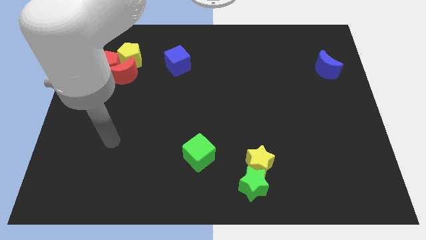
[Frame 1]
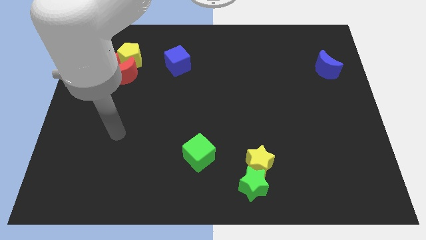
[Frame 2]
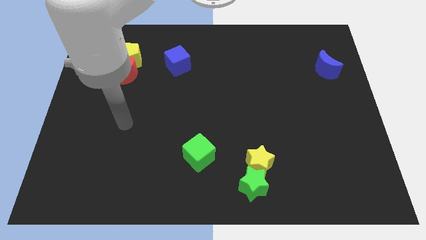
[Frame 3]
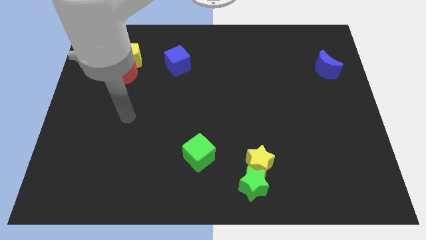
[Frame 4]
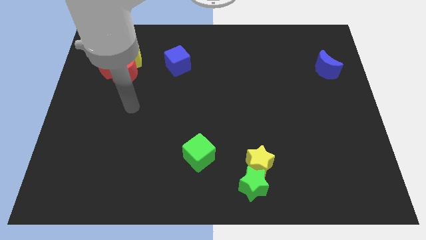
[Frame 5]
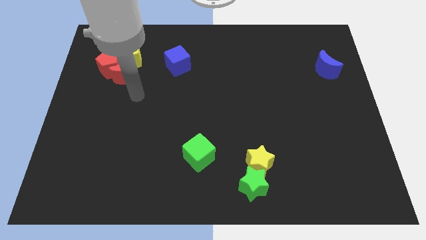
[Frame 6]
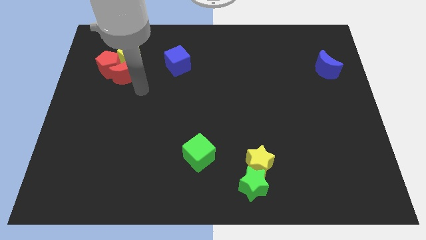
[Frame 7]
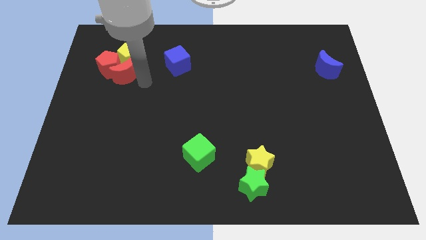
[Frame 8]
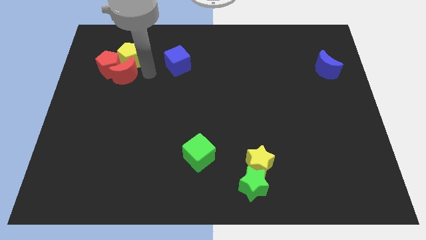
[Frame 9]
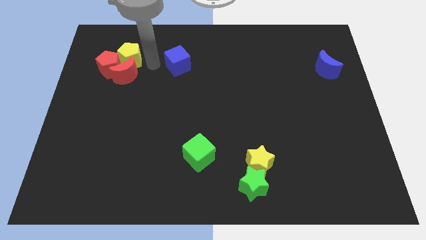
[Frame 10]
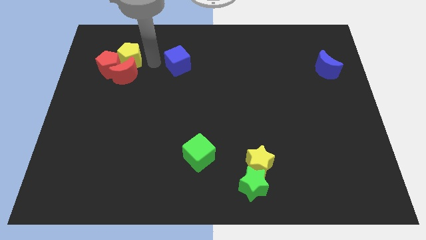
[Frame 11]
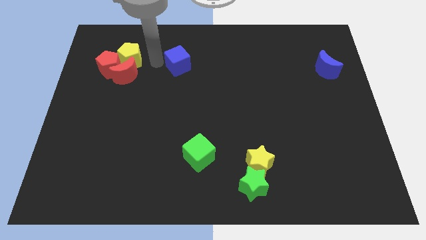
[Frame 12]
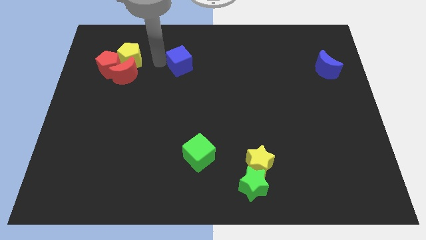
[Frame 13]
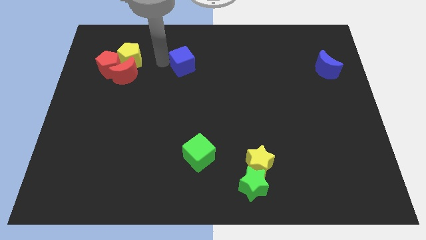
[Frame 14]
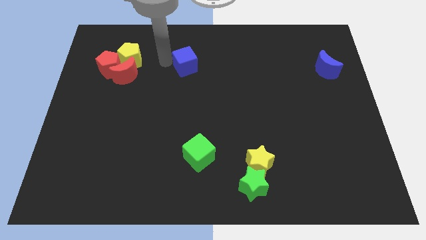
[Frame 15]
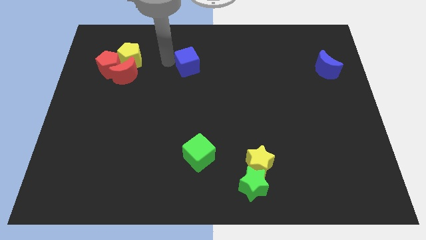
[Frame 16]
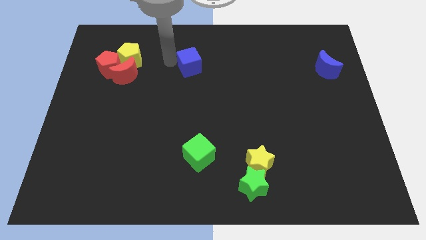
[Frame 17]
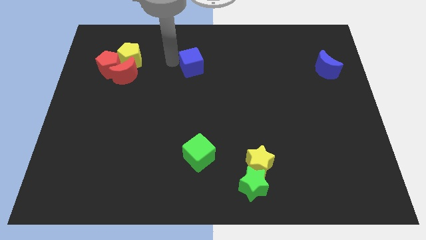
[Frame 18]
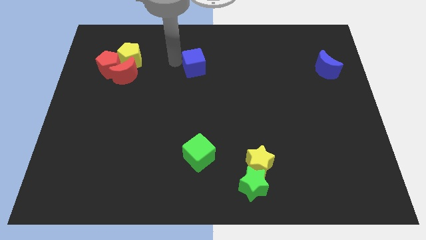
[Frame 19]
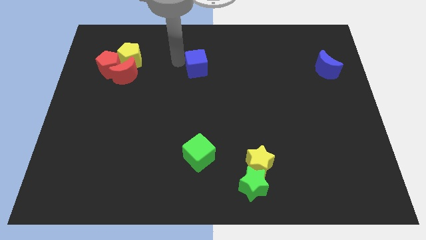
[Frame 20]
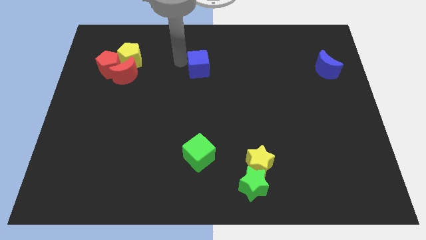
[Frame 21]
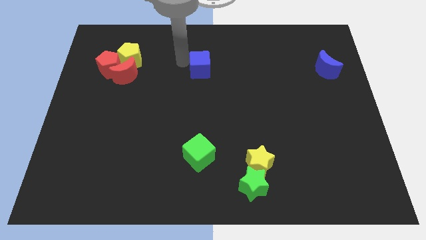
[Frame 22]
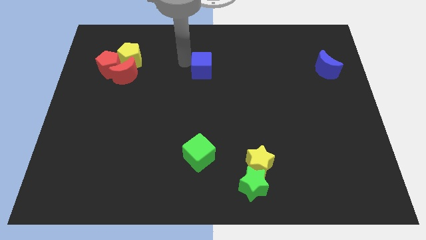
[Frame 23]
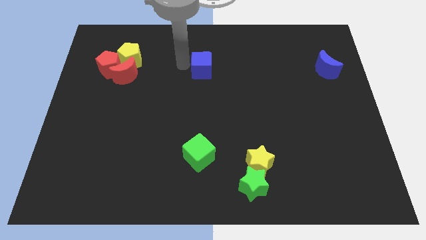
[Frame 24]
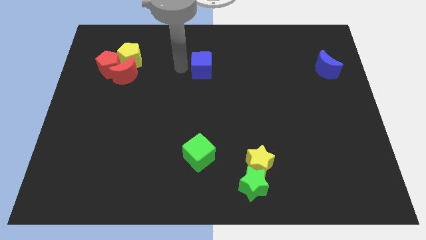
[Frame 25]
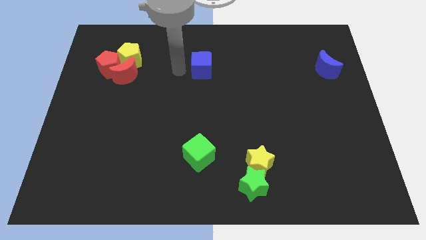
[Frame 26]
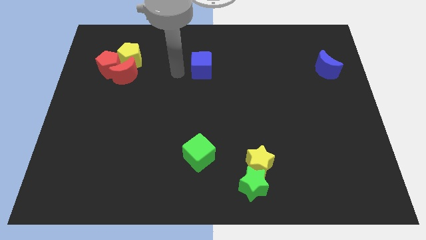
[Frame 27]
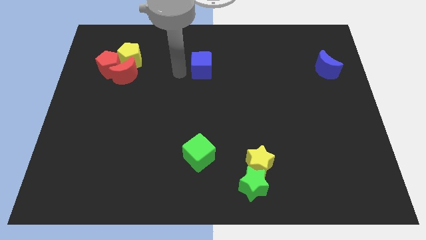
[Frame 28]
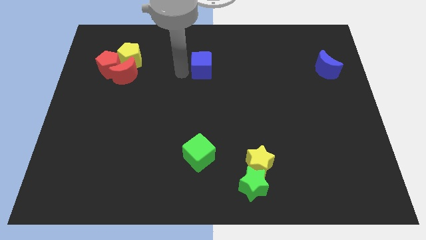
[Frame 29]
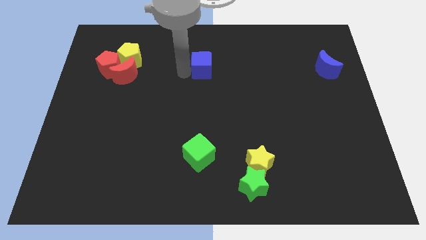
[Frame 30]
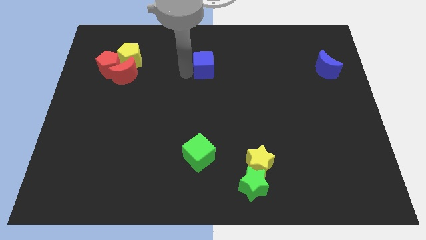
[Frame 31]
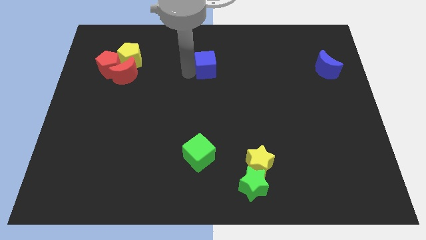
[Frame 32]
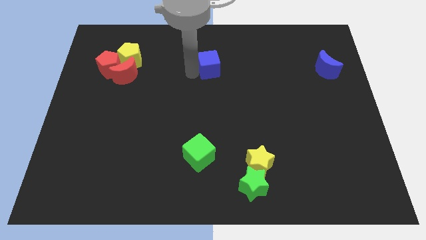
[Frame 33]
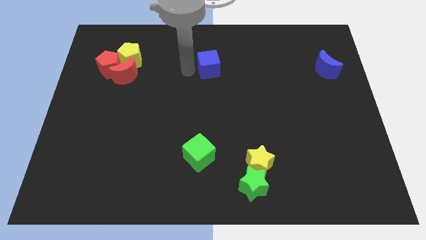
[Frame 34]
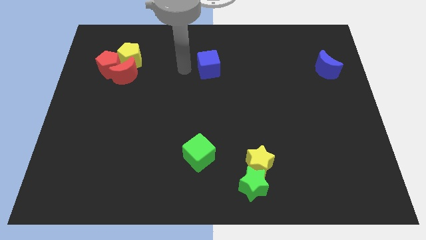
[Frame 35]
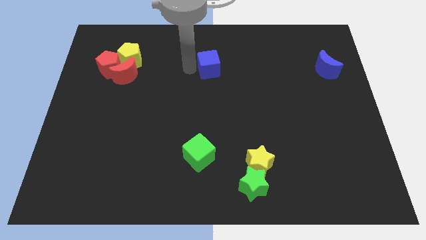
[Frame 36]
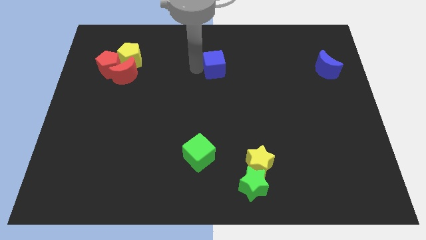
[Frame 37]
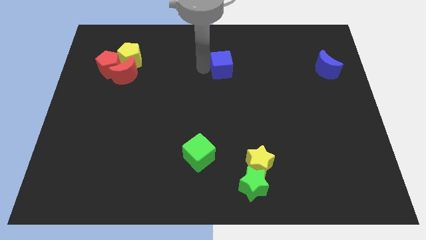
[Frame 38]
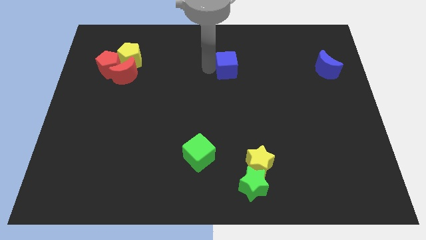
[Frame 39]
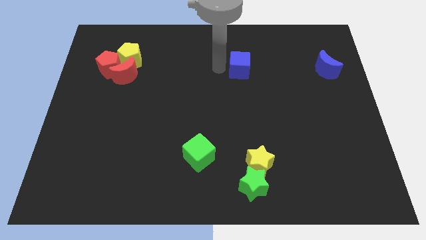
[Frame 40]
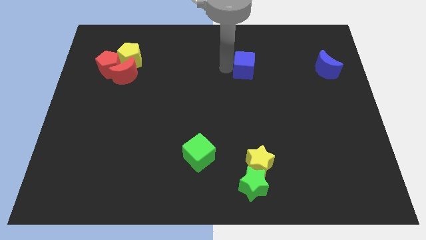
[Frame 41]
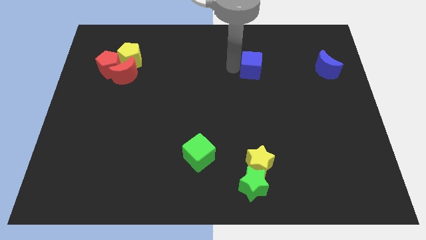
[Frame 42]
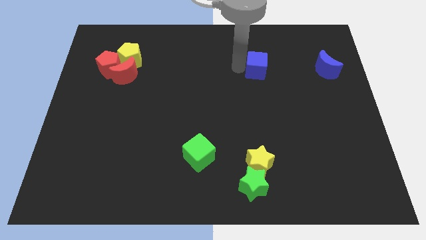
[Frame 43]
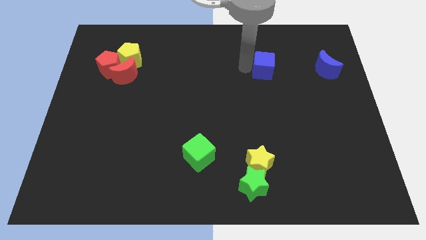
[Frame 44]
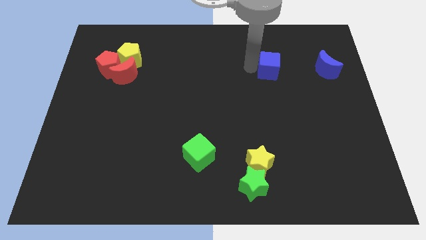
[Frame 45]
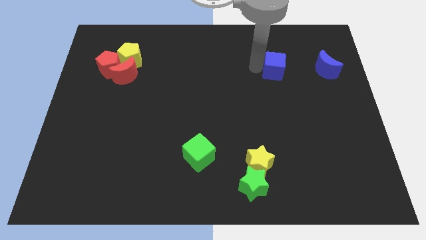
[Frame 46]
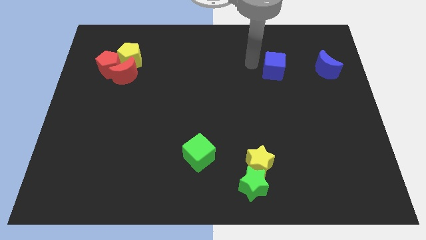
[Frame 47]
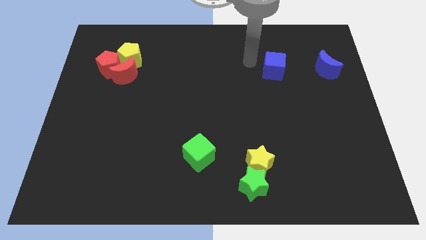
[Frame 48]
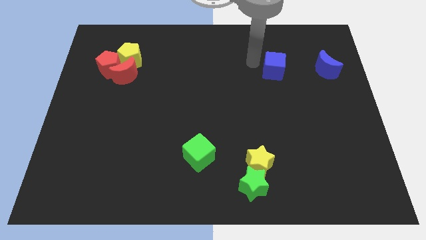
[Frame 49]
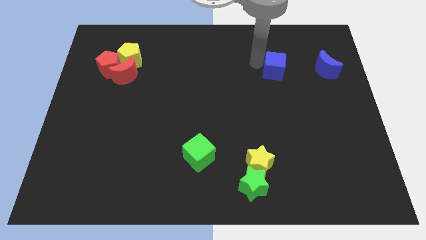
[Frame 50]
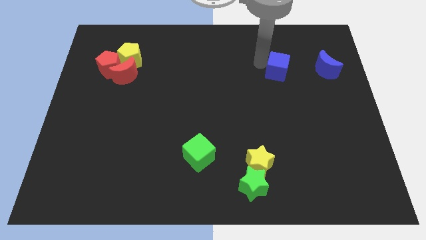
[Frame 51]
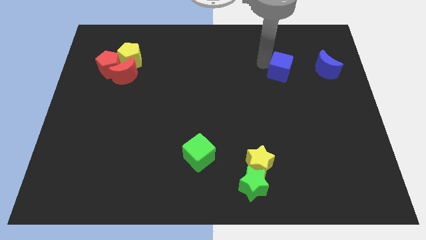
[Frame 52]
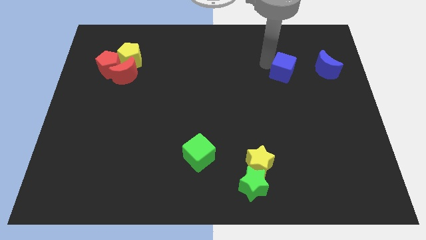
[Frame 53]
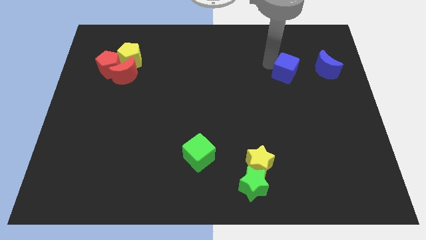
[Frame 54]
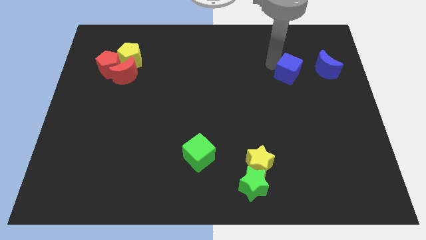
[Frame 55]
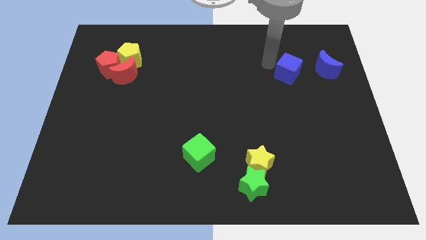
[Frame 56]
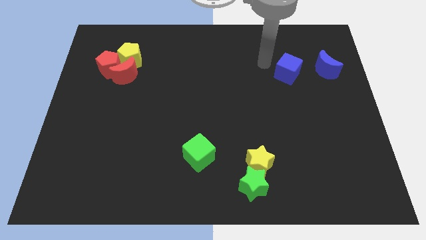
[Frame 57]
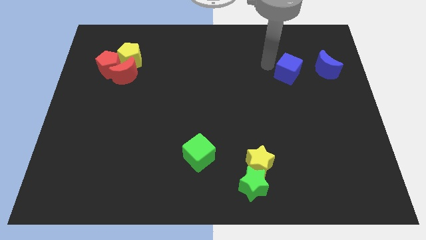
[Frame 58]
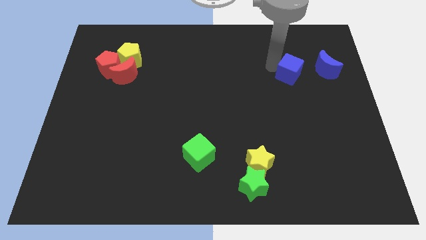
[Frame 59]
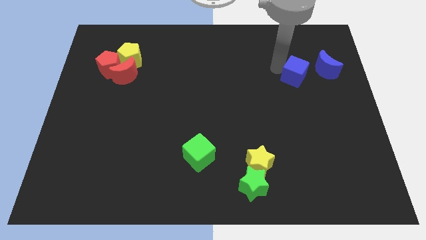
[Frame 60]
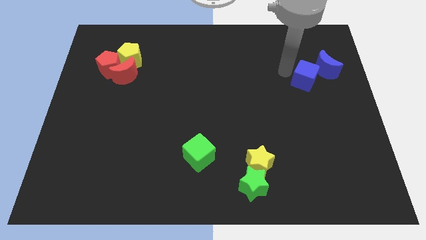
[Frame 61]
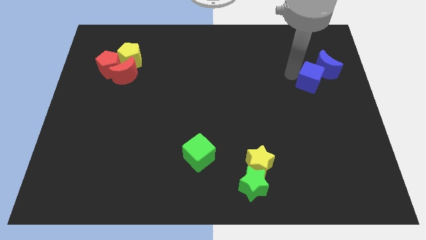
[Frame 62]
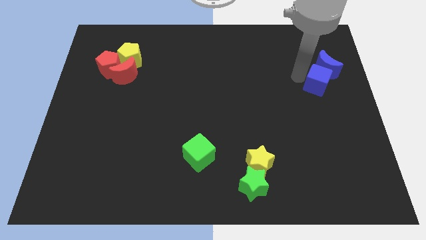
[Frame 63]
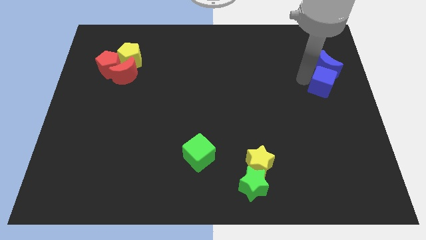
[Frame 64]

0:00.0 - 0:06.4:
slide the blue cube to the center right
